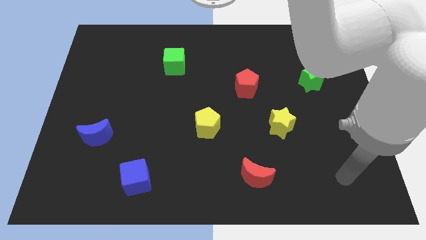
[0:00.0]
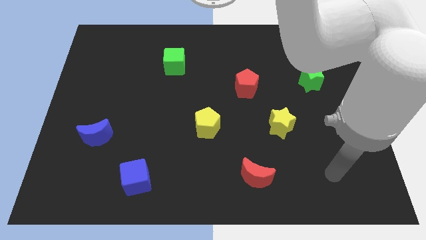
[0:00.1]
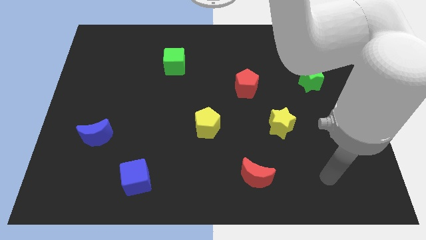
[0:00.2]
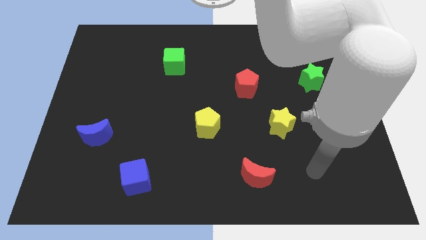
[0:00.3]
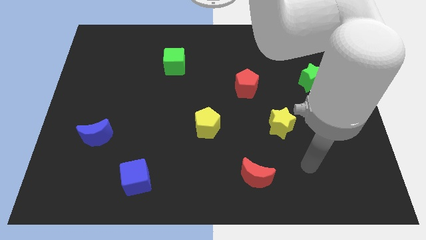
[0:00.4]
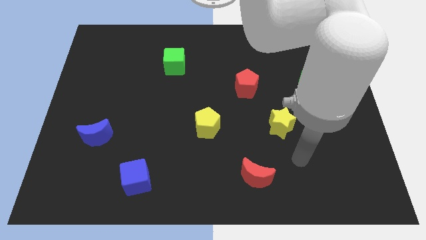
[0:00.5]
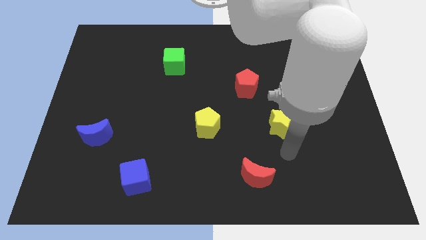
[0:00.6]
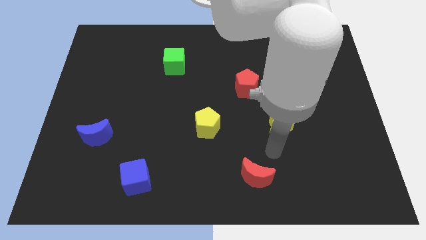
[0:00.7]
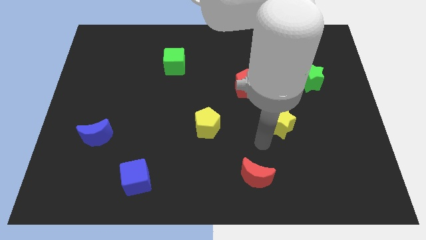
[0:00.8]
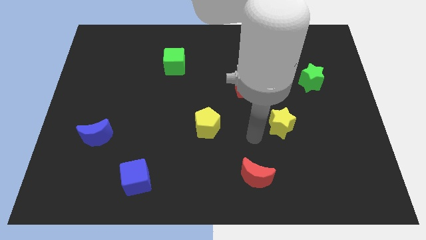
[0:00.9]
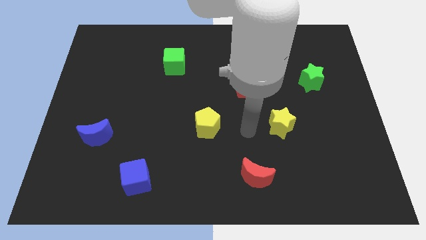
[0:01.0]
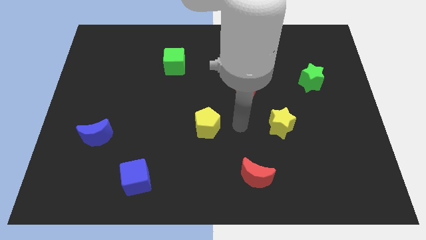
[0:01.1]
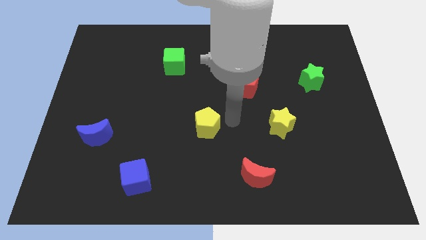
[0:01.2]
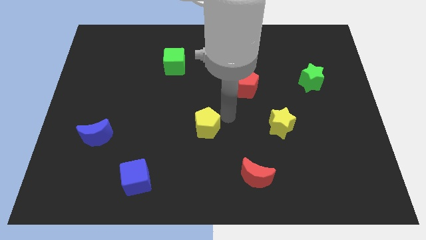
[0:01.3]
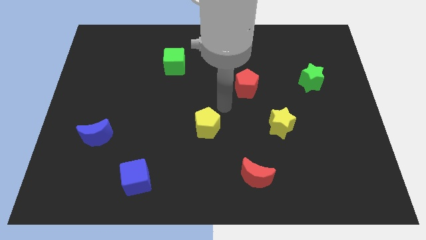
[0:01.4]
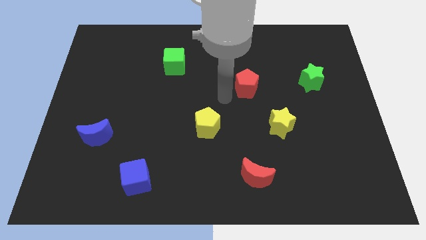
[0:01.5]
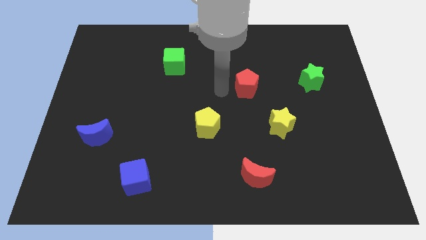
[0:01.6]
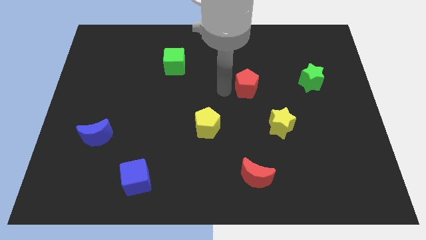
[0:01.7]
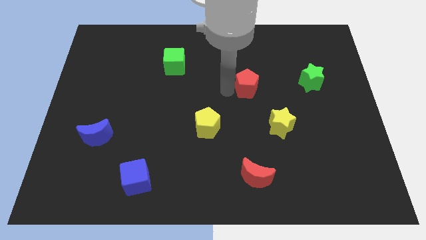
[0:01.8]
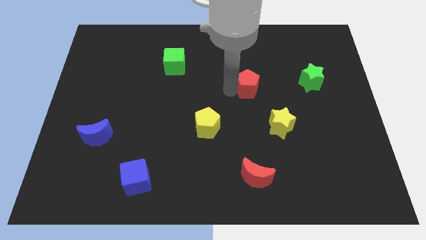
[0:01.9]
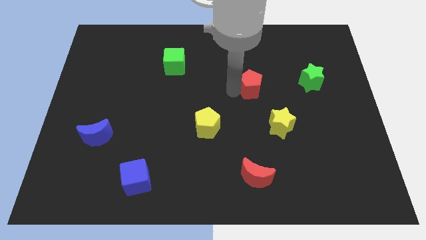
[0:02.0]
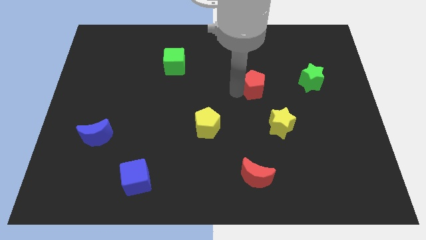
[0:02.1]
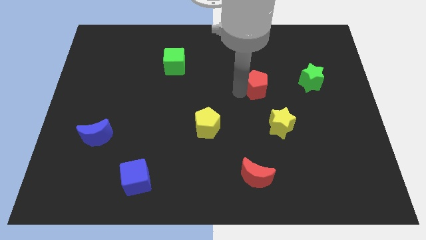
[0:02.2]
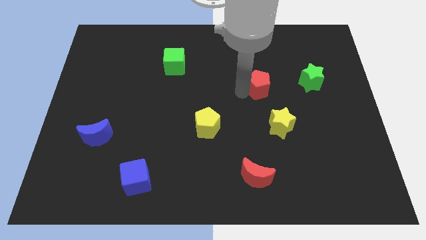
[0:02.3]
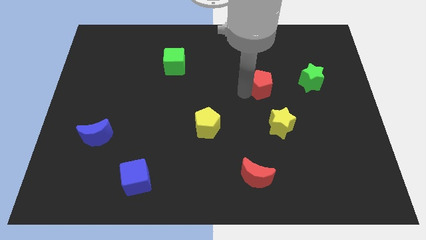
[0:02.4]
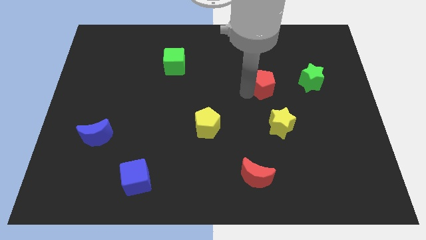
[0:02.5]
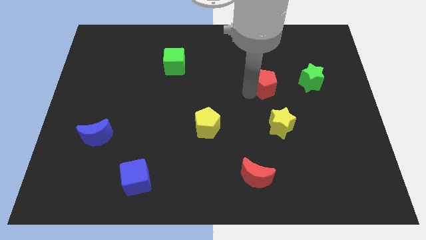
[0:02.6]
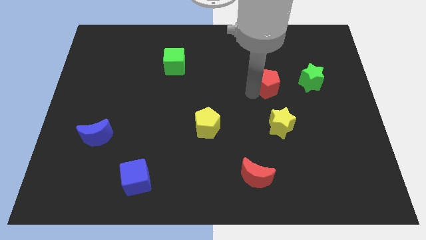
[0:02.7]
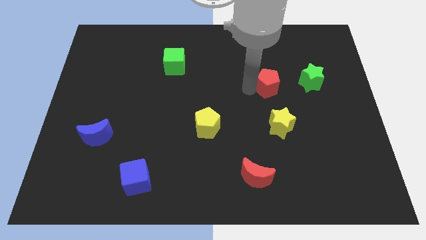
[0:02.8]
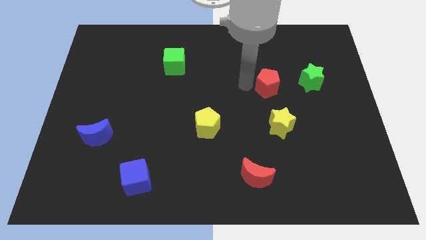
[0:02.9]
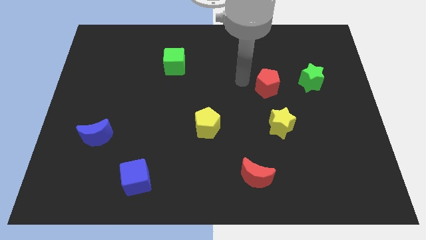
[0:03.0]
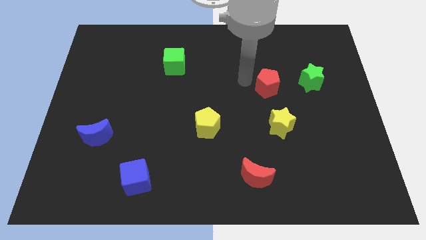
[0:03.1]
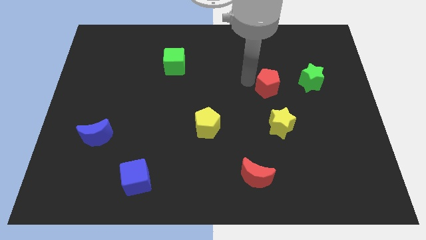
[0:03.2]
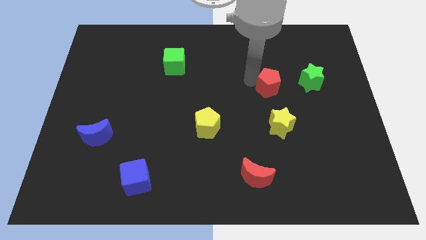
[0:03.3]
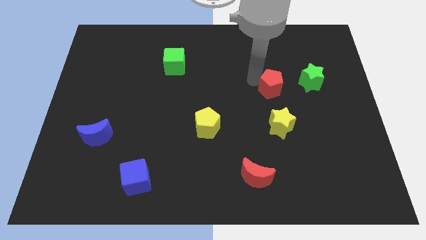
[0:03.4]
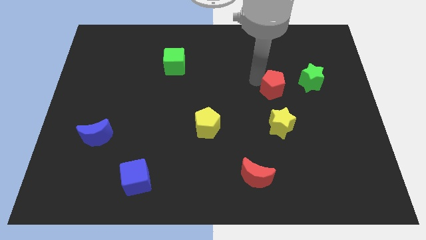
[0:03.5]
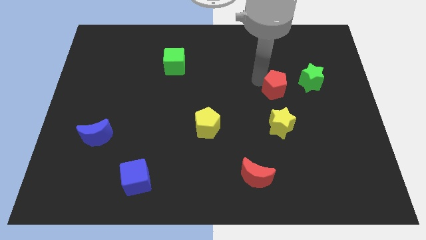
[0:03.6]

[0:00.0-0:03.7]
slide the red pentagon right a little

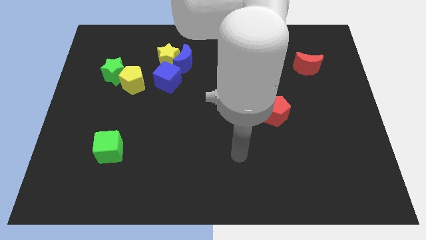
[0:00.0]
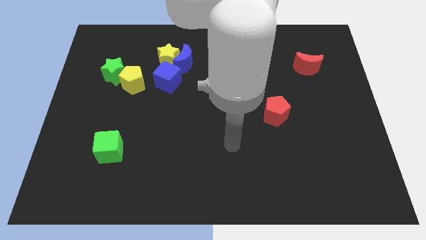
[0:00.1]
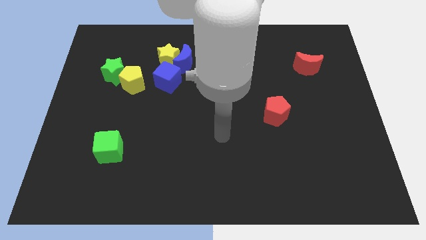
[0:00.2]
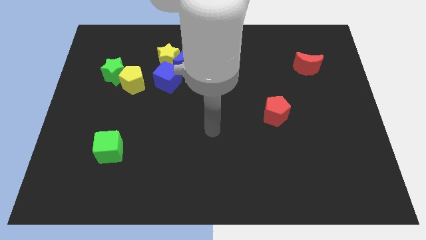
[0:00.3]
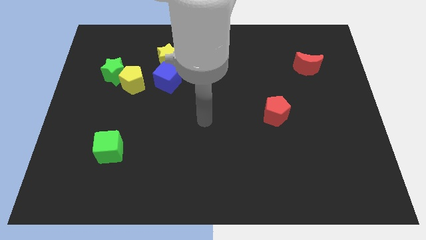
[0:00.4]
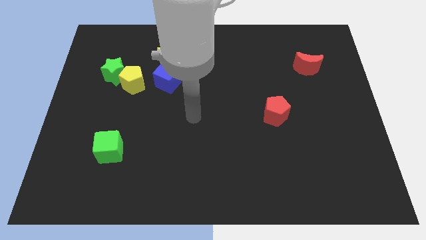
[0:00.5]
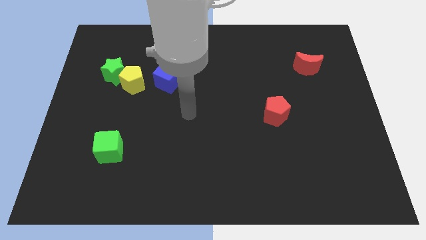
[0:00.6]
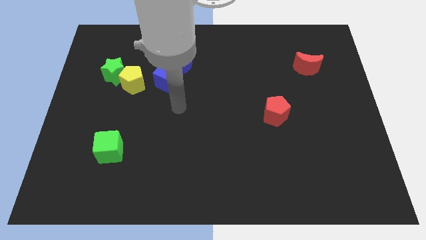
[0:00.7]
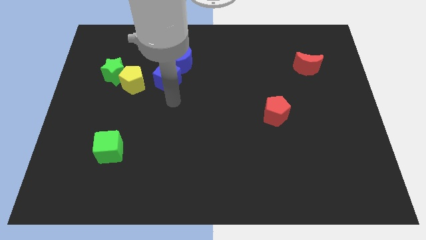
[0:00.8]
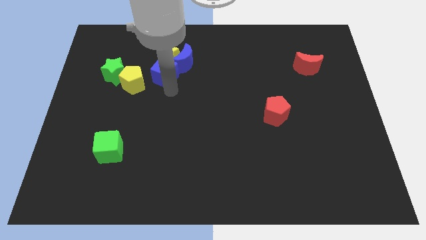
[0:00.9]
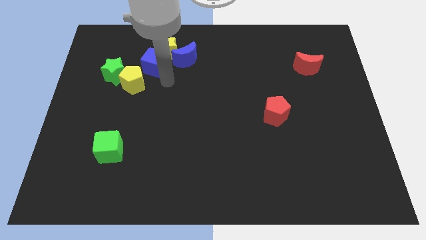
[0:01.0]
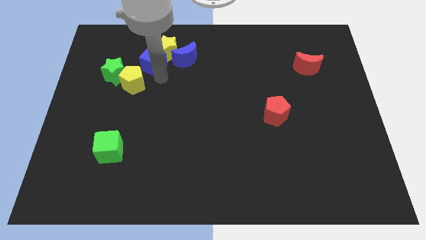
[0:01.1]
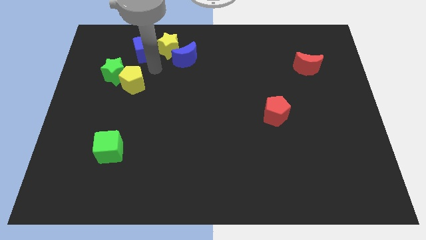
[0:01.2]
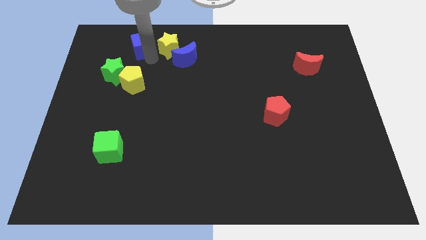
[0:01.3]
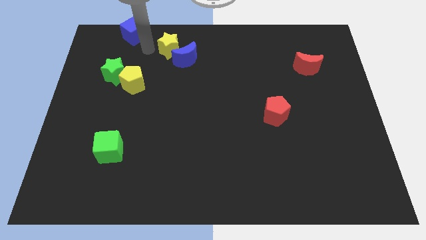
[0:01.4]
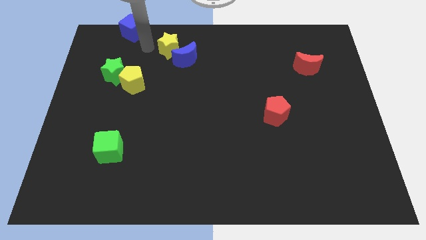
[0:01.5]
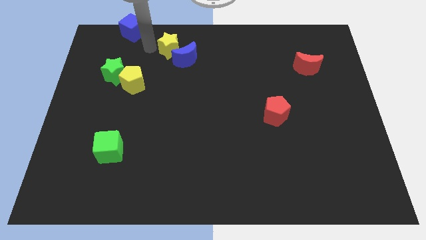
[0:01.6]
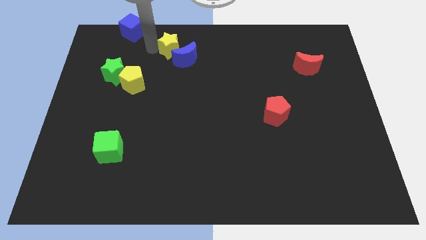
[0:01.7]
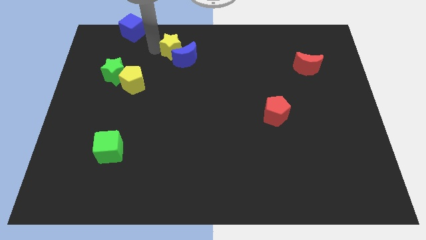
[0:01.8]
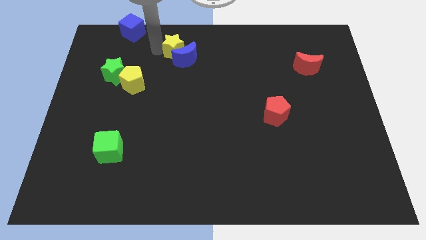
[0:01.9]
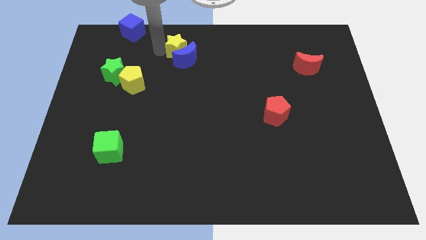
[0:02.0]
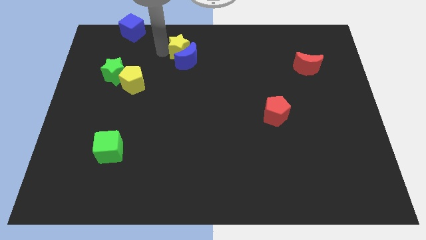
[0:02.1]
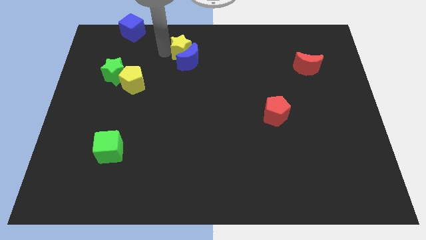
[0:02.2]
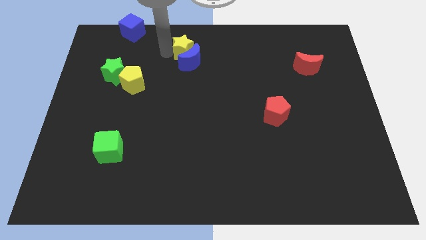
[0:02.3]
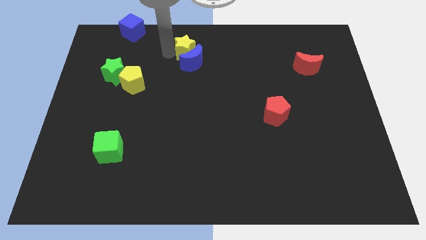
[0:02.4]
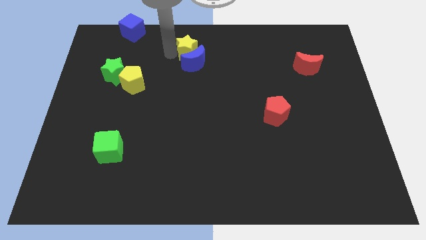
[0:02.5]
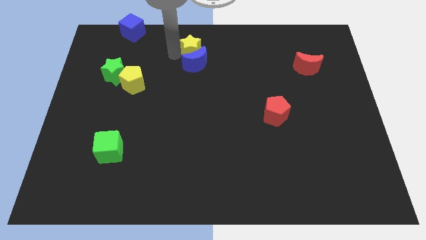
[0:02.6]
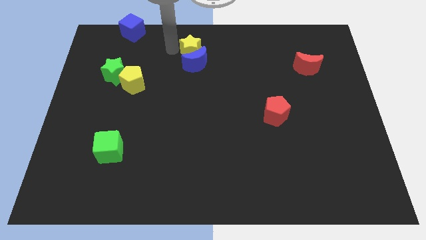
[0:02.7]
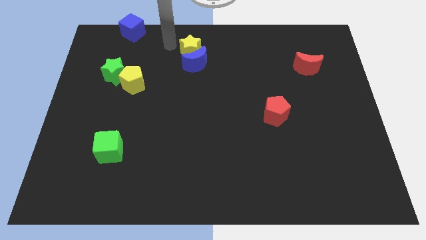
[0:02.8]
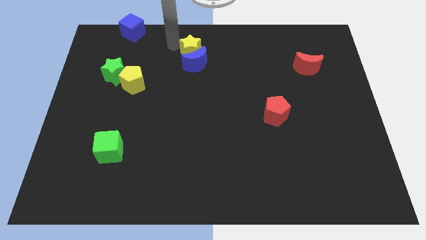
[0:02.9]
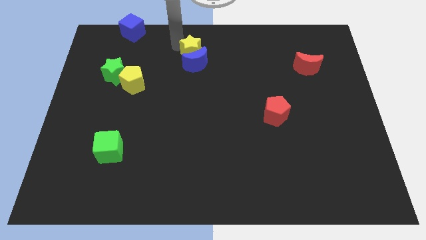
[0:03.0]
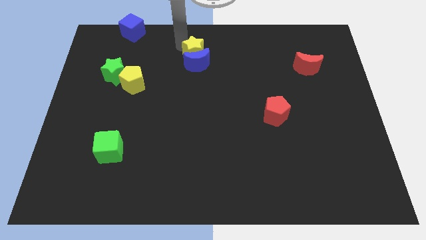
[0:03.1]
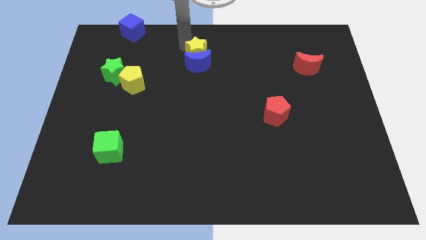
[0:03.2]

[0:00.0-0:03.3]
move the yellow star right somewhat

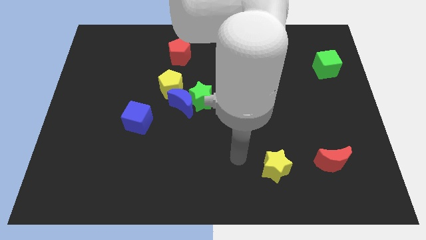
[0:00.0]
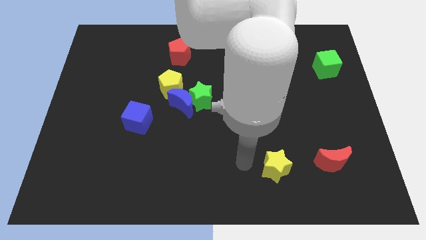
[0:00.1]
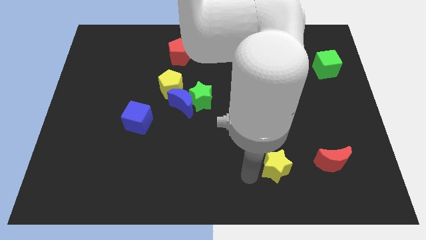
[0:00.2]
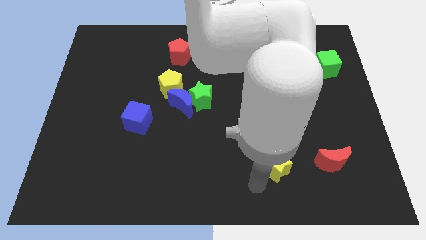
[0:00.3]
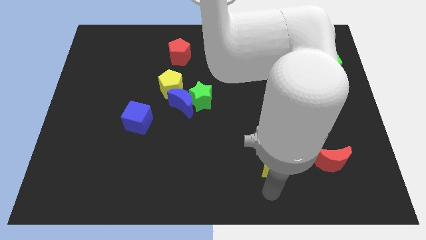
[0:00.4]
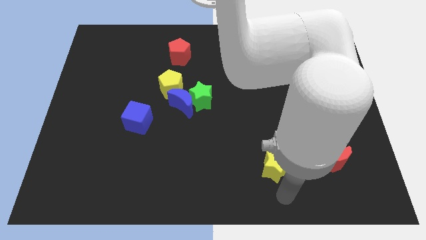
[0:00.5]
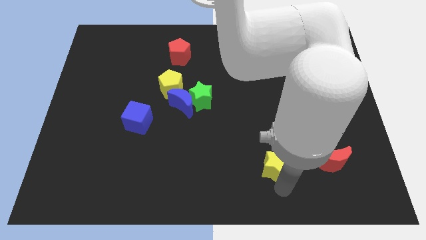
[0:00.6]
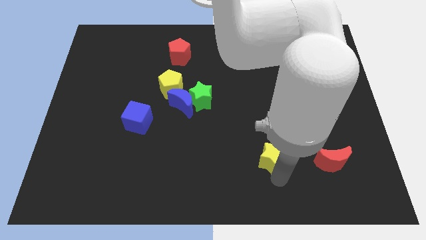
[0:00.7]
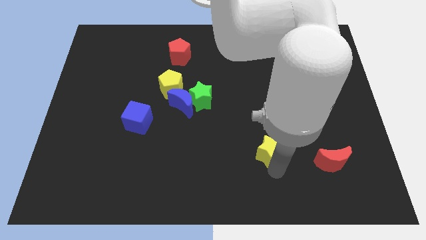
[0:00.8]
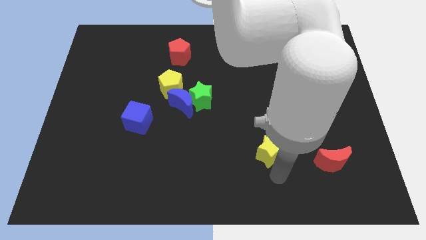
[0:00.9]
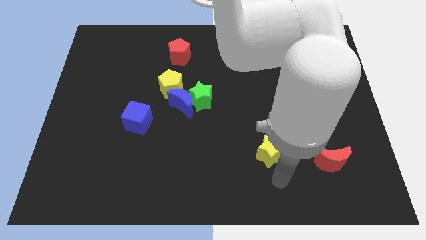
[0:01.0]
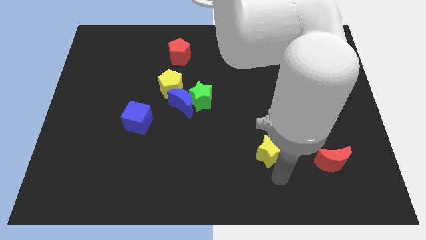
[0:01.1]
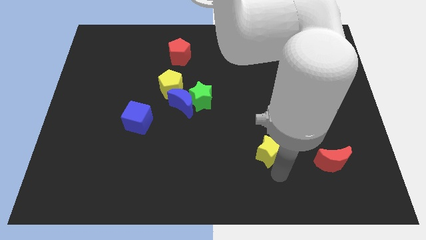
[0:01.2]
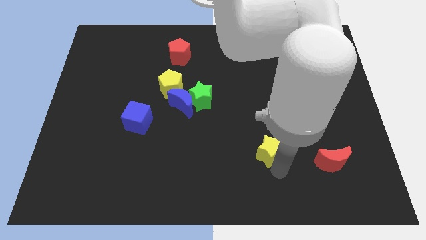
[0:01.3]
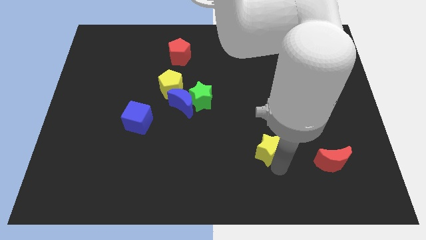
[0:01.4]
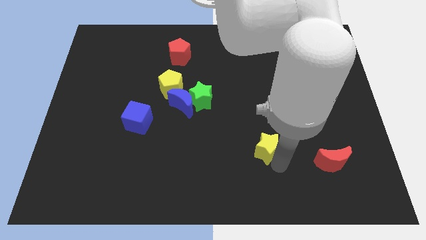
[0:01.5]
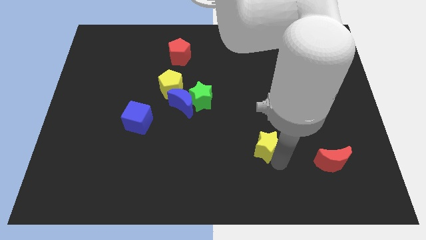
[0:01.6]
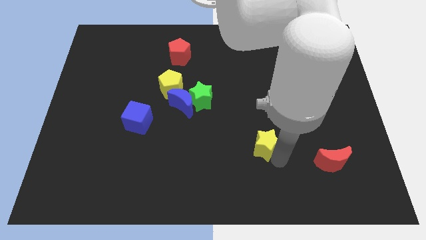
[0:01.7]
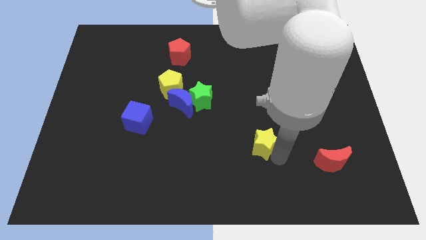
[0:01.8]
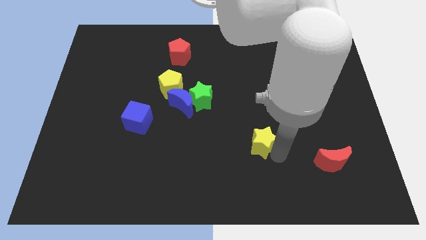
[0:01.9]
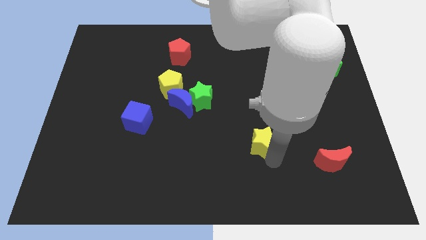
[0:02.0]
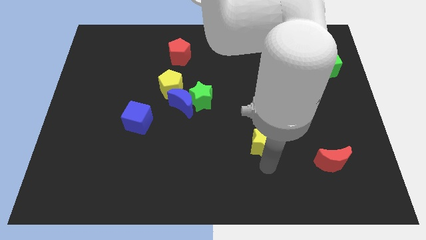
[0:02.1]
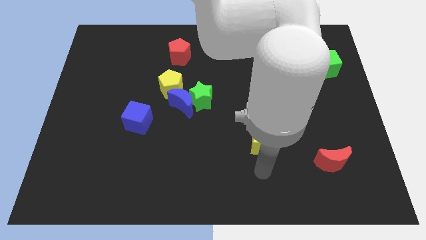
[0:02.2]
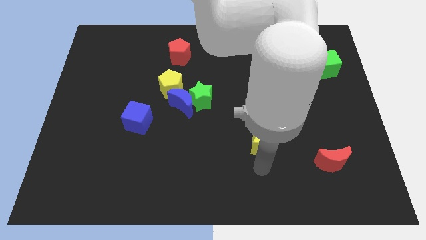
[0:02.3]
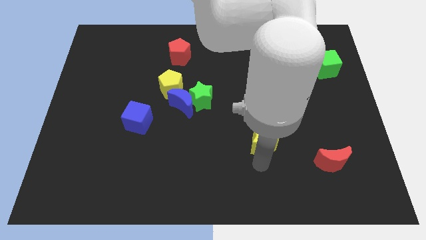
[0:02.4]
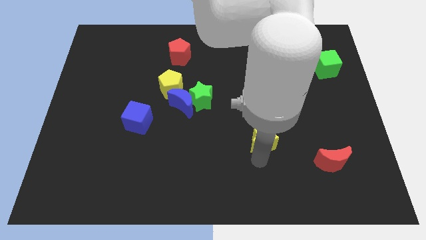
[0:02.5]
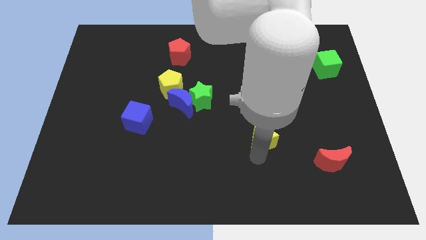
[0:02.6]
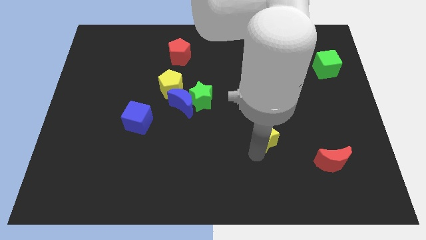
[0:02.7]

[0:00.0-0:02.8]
slightly push the yellow star up
